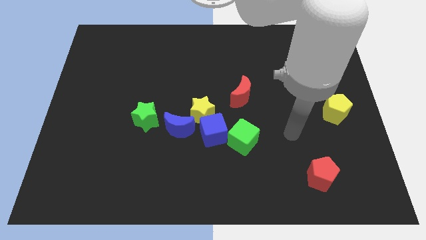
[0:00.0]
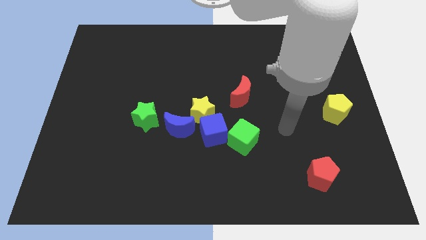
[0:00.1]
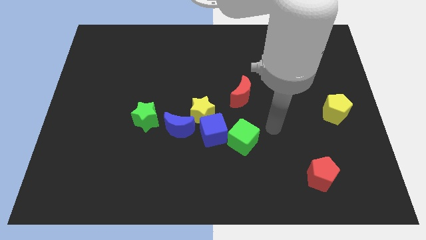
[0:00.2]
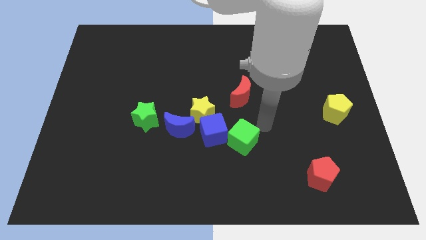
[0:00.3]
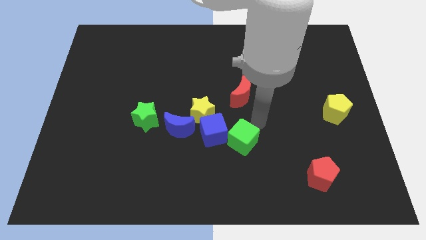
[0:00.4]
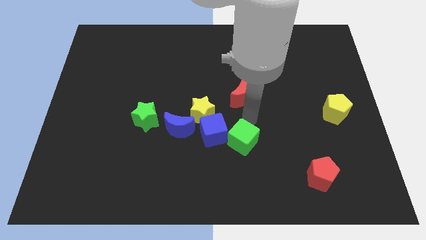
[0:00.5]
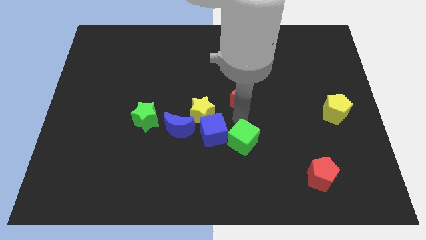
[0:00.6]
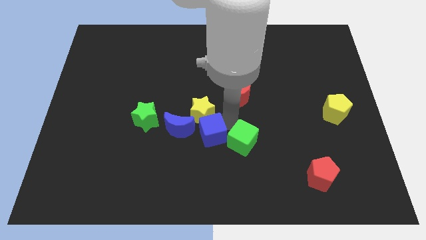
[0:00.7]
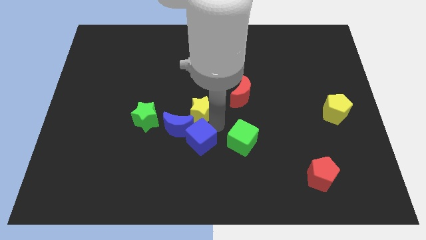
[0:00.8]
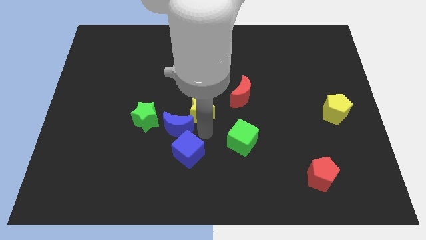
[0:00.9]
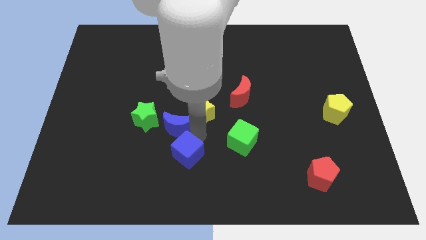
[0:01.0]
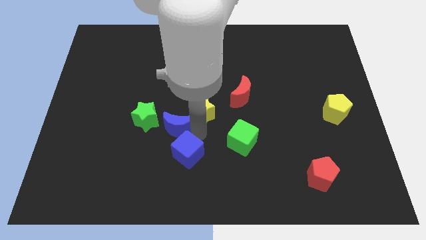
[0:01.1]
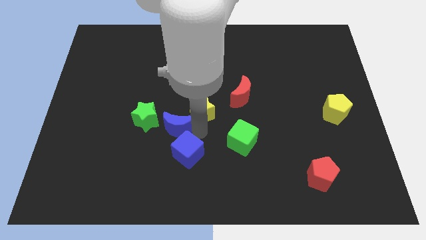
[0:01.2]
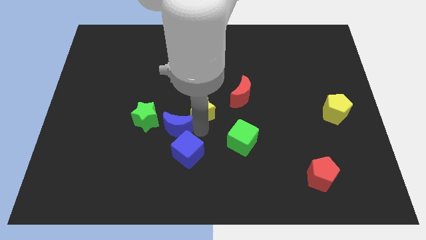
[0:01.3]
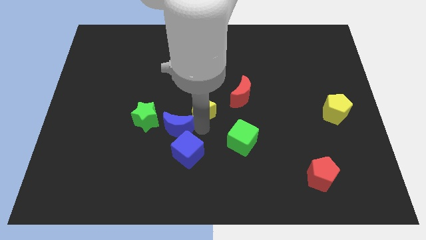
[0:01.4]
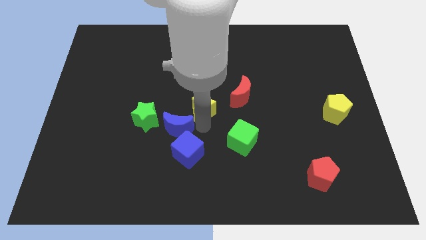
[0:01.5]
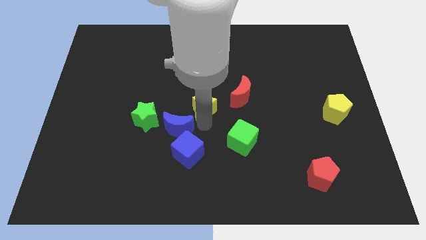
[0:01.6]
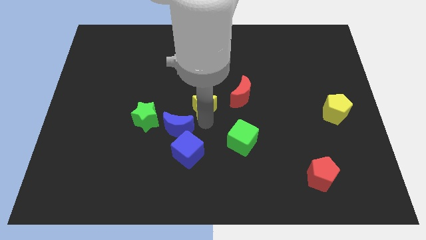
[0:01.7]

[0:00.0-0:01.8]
pull the yellow star apart from the blue cube and blue moon

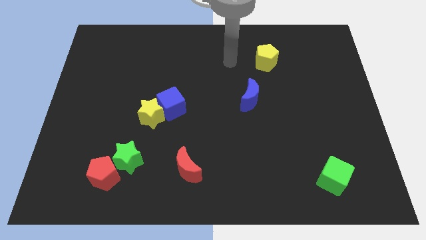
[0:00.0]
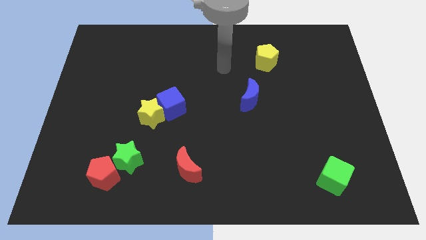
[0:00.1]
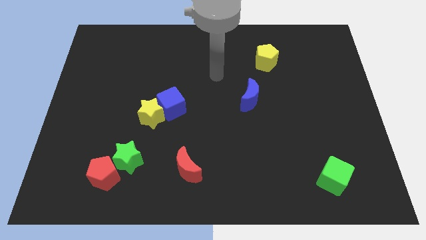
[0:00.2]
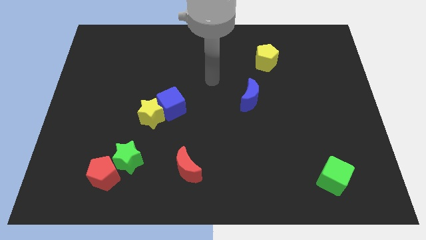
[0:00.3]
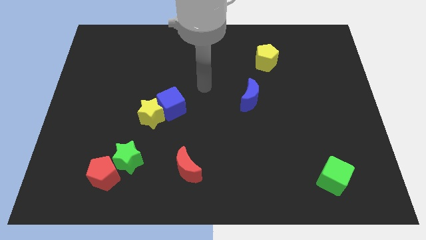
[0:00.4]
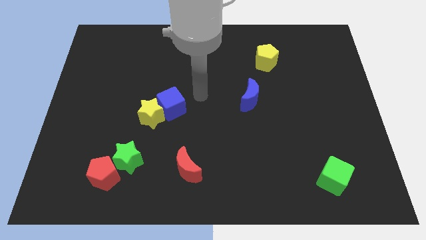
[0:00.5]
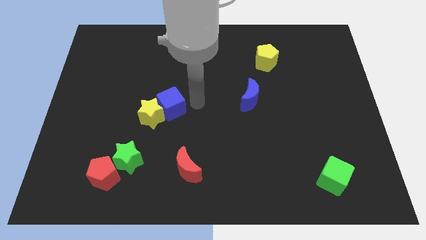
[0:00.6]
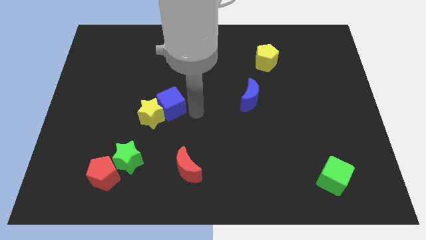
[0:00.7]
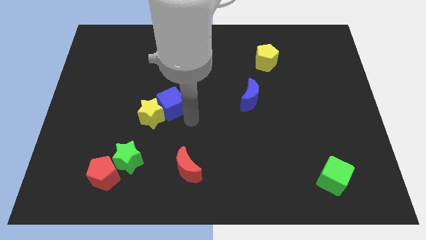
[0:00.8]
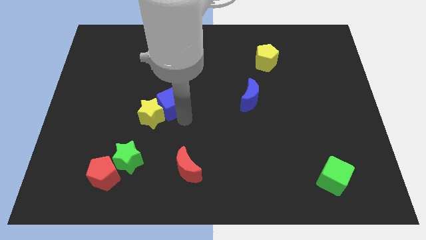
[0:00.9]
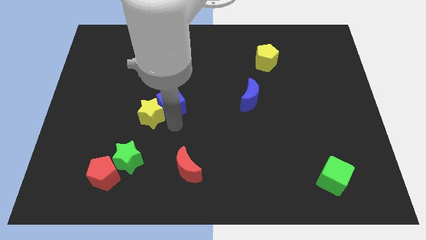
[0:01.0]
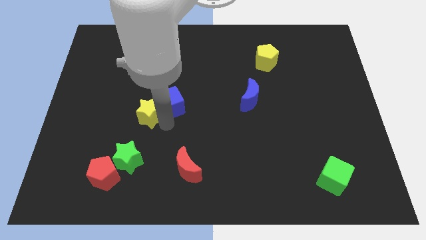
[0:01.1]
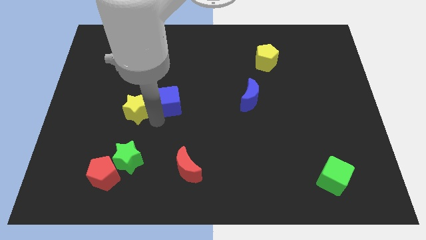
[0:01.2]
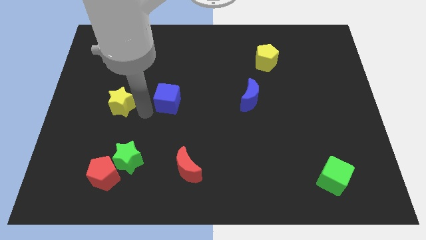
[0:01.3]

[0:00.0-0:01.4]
separate the blue cube from the yellow star

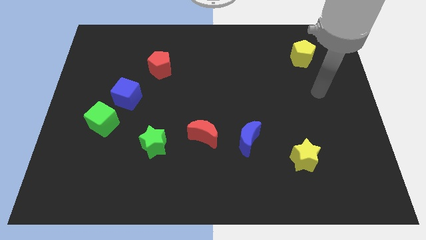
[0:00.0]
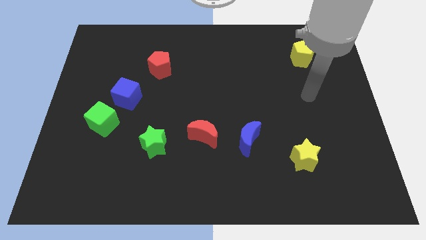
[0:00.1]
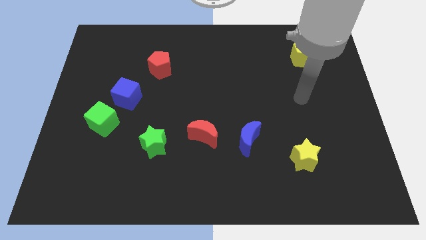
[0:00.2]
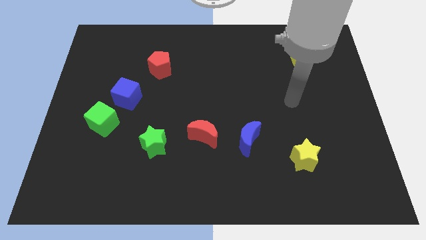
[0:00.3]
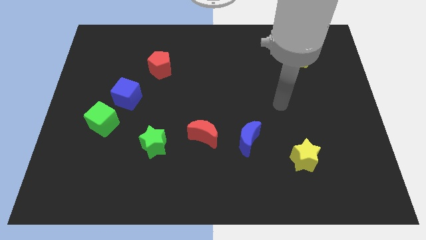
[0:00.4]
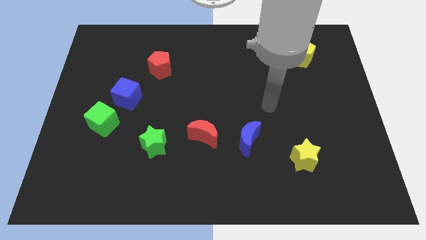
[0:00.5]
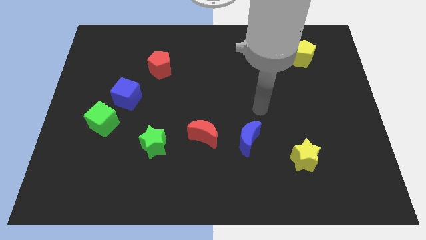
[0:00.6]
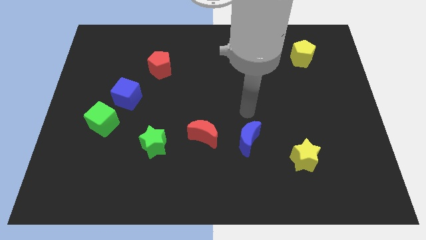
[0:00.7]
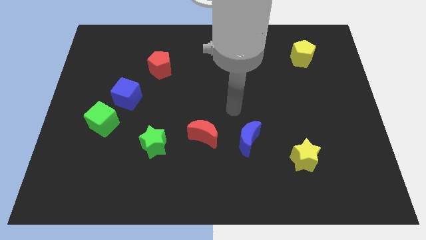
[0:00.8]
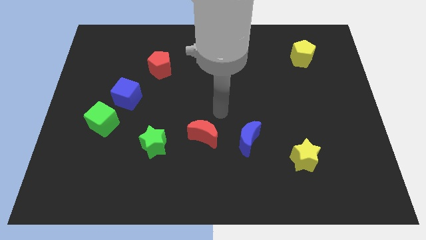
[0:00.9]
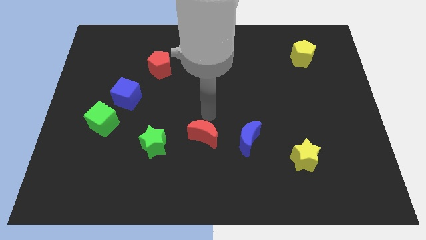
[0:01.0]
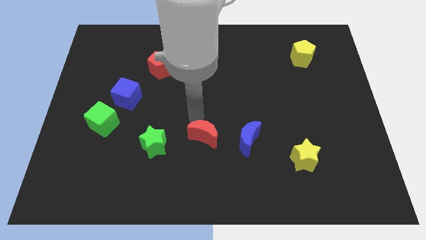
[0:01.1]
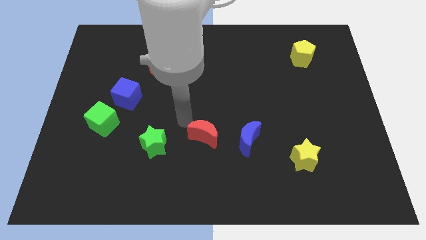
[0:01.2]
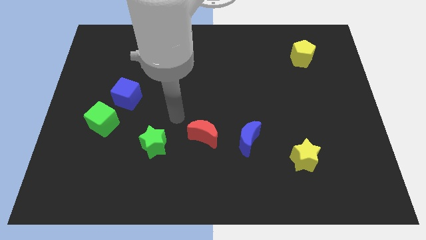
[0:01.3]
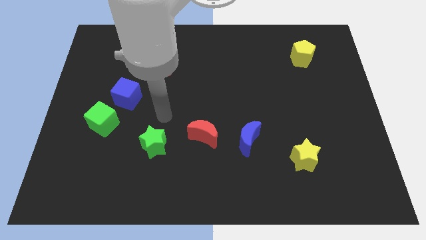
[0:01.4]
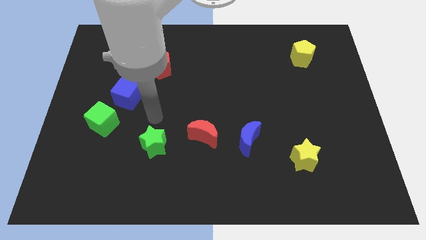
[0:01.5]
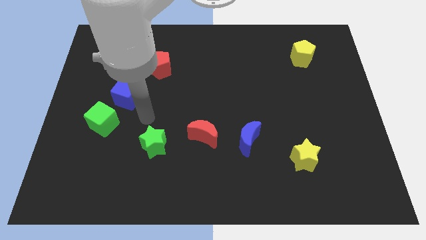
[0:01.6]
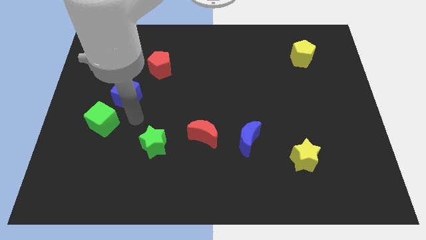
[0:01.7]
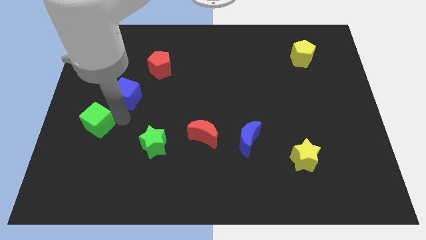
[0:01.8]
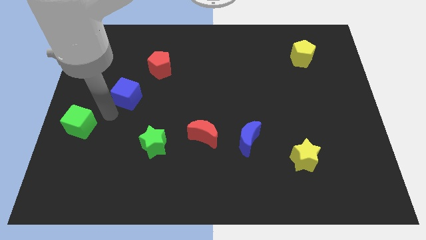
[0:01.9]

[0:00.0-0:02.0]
pull the blue cube apart from the green cube

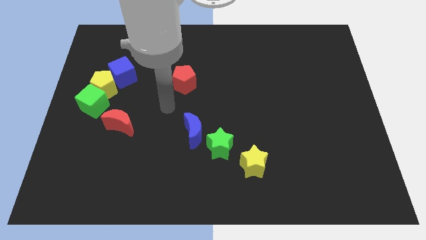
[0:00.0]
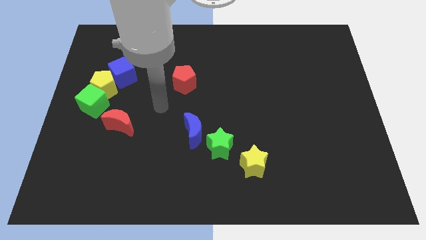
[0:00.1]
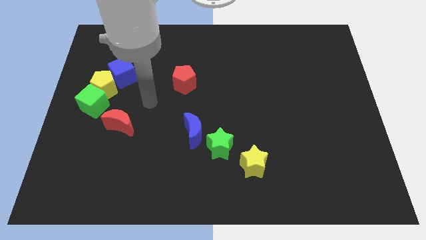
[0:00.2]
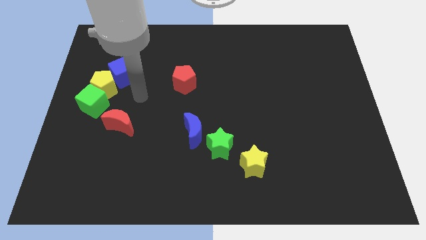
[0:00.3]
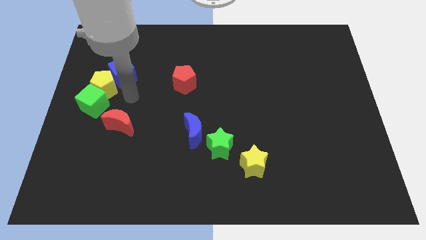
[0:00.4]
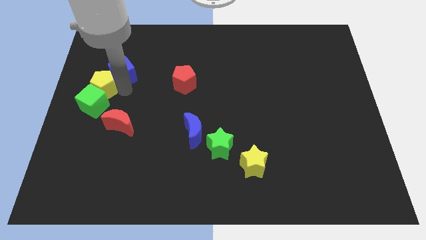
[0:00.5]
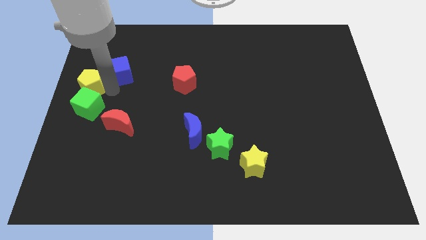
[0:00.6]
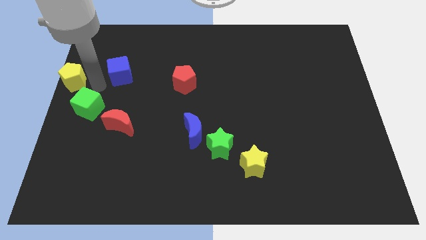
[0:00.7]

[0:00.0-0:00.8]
move the blue cube away from the yellow pentagon

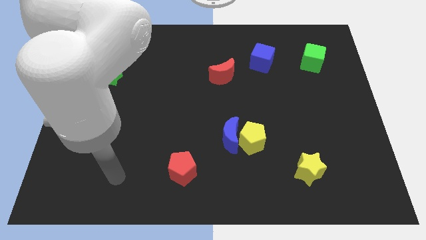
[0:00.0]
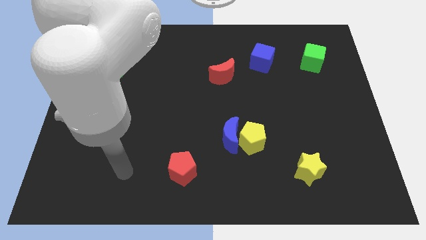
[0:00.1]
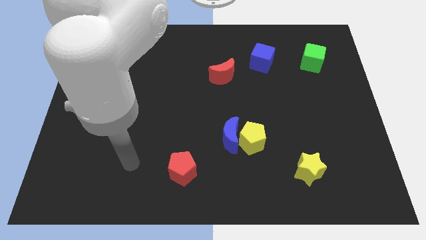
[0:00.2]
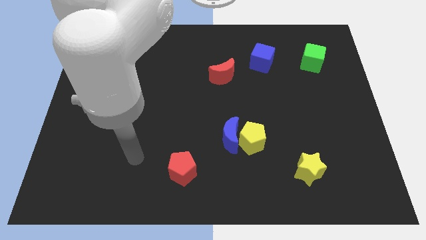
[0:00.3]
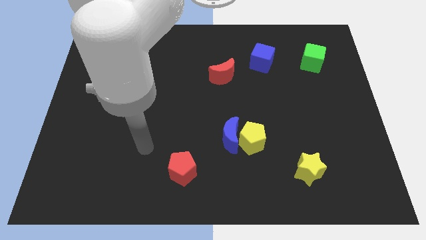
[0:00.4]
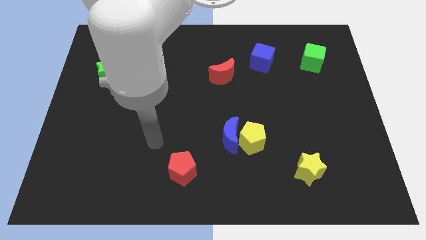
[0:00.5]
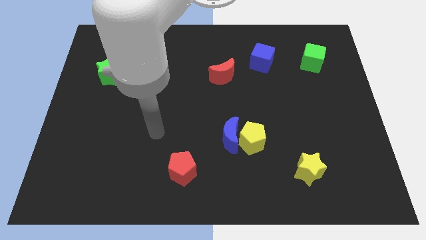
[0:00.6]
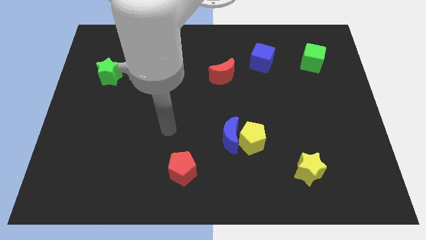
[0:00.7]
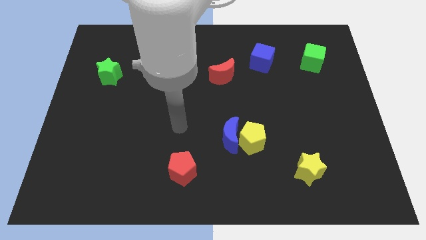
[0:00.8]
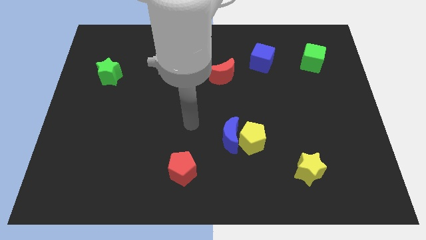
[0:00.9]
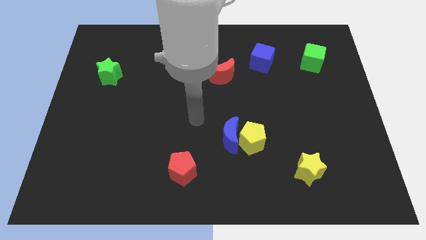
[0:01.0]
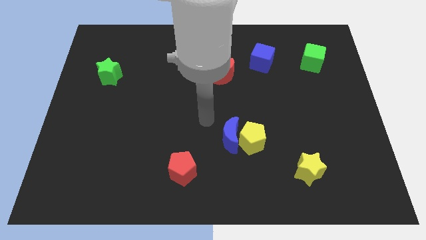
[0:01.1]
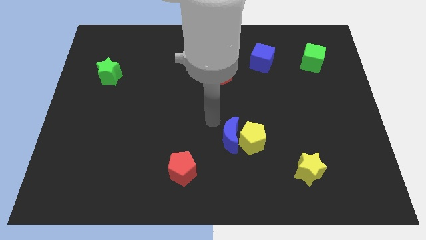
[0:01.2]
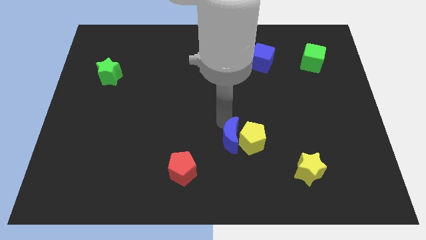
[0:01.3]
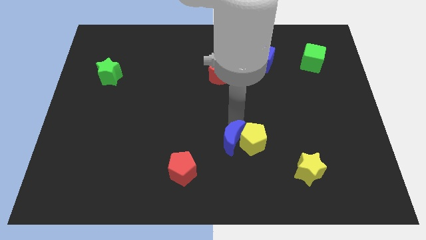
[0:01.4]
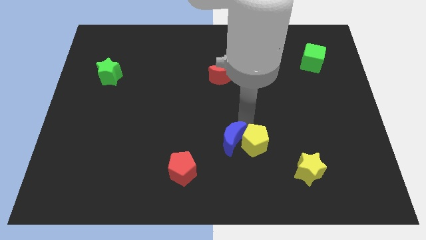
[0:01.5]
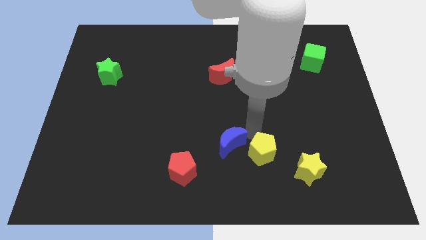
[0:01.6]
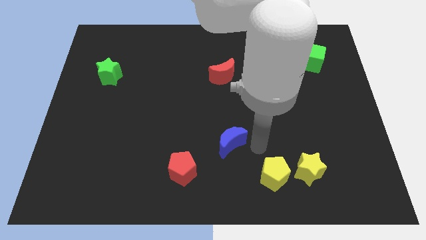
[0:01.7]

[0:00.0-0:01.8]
pull the blue moon apart from the yellow pentagon

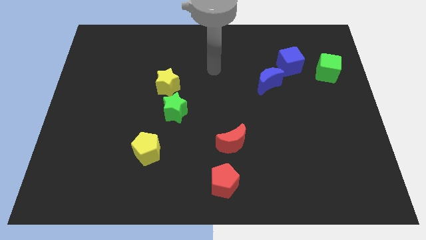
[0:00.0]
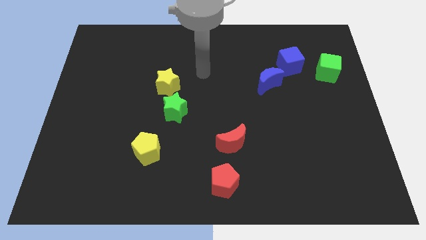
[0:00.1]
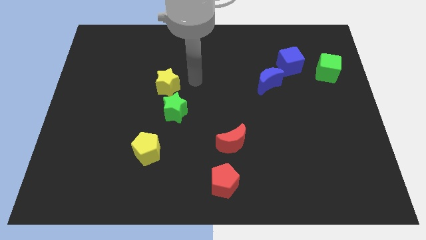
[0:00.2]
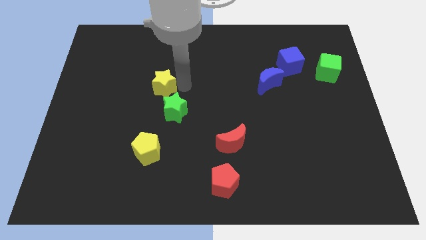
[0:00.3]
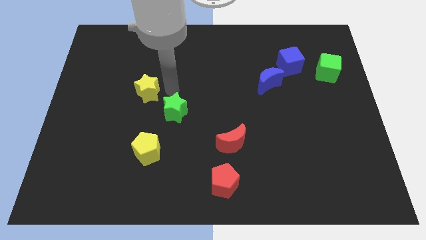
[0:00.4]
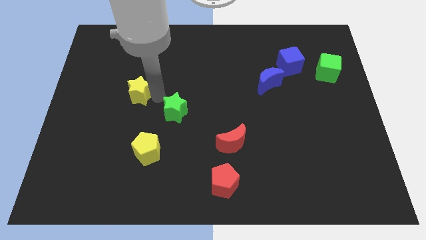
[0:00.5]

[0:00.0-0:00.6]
pull the green star apart from the yellow star

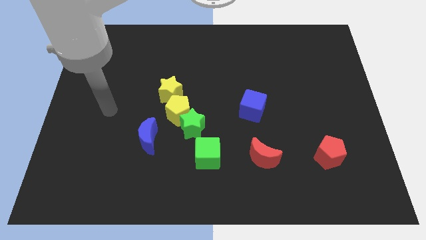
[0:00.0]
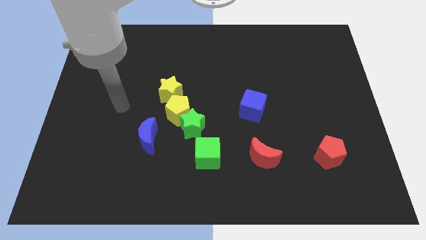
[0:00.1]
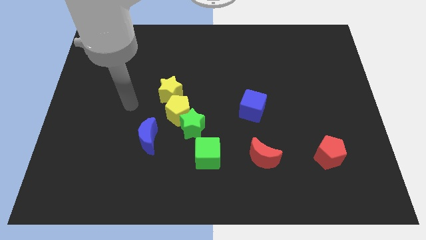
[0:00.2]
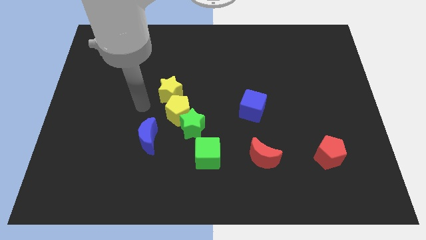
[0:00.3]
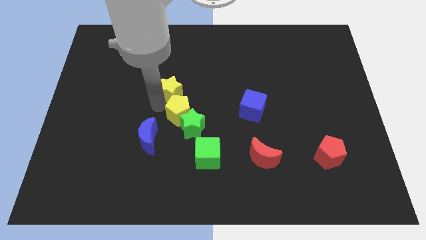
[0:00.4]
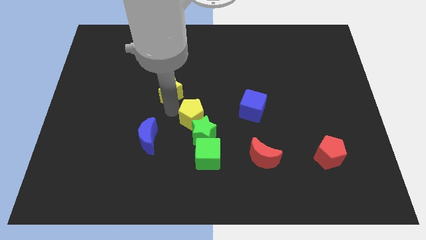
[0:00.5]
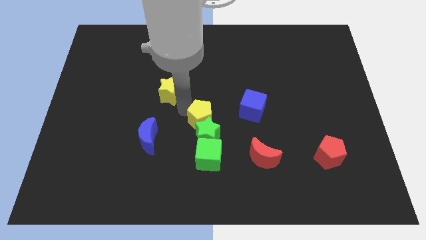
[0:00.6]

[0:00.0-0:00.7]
pull the yellow star apart from the yellow pentagon
